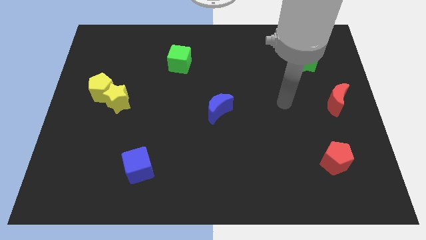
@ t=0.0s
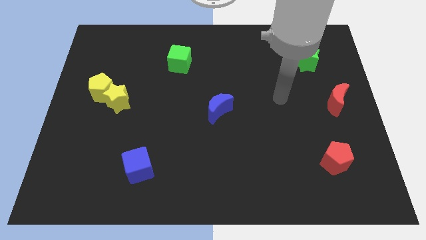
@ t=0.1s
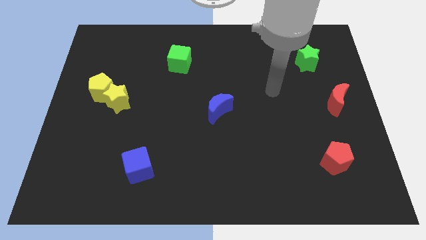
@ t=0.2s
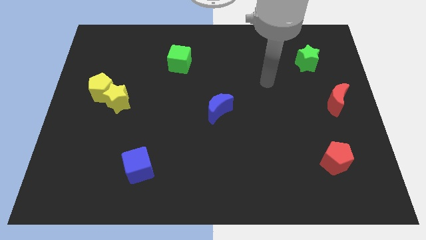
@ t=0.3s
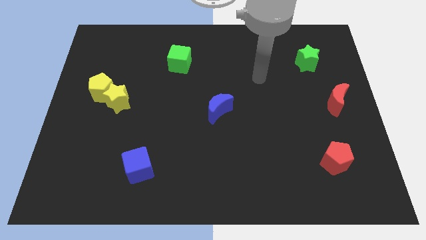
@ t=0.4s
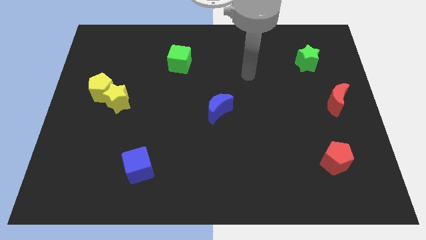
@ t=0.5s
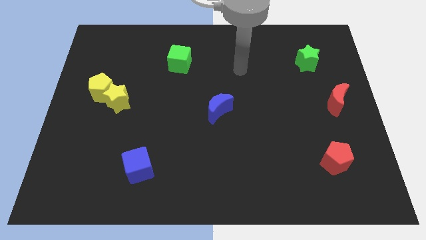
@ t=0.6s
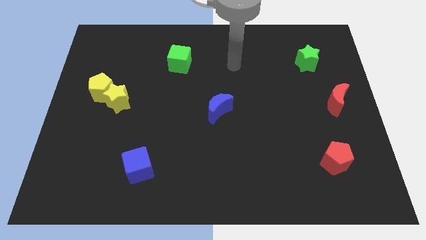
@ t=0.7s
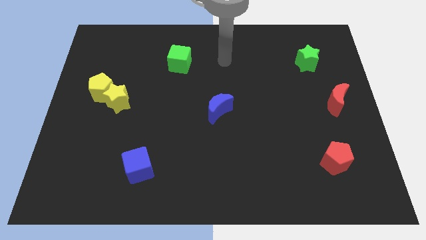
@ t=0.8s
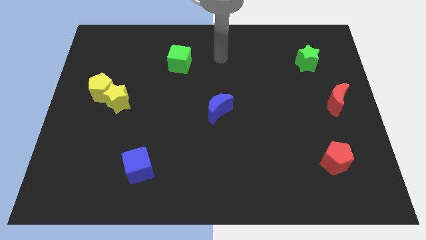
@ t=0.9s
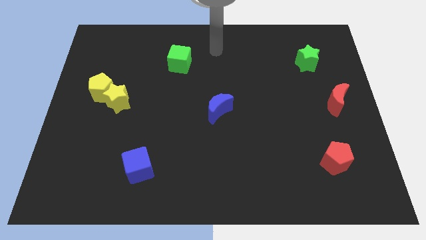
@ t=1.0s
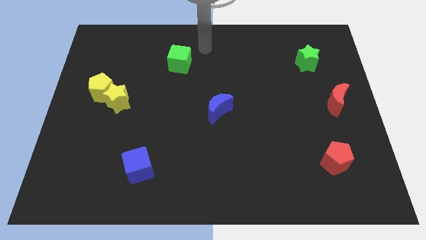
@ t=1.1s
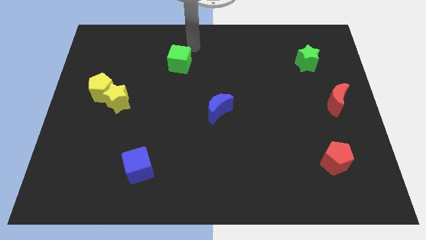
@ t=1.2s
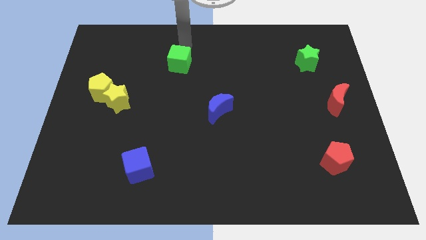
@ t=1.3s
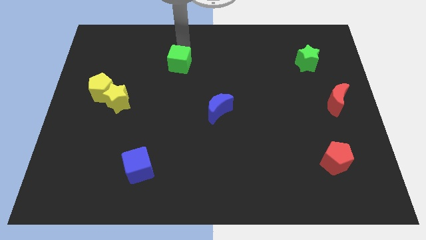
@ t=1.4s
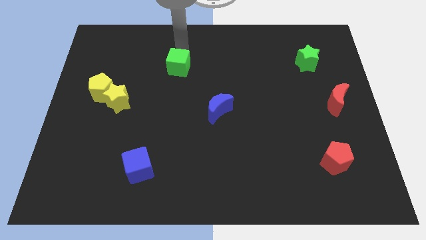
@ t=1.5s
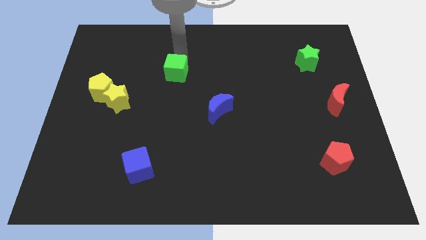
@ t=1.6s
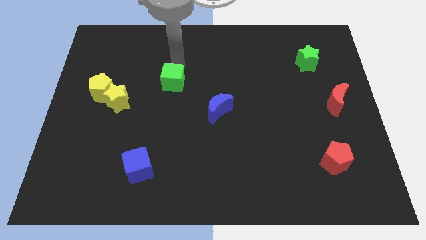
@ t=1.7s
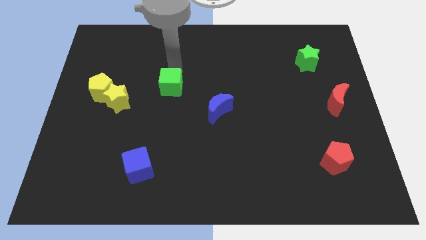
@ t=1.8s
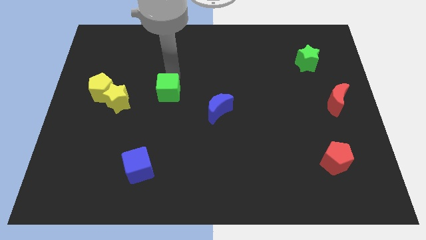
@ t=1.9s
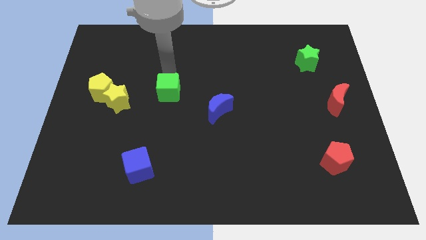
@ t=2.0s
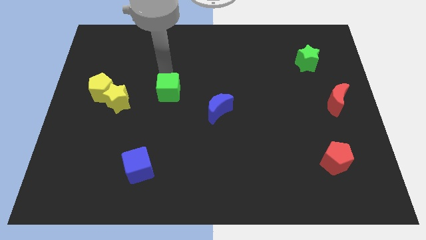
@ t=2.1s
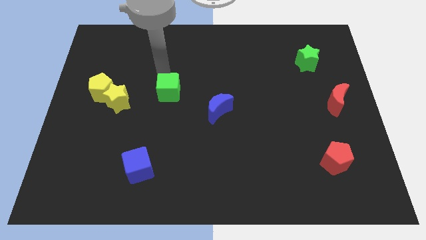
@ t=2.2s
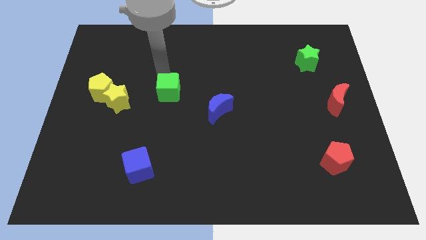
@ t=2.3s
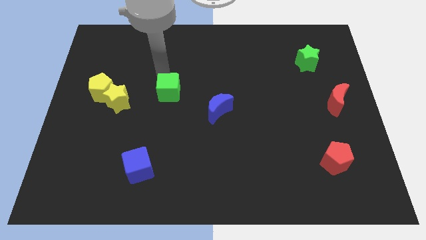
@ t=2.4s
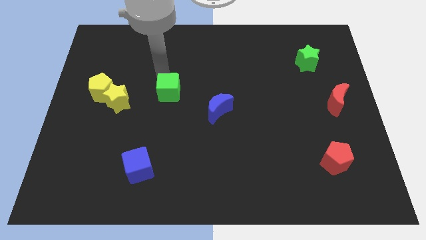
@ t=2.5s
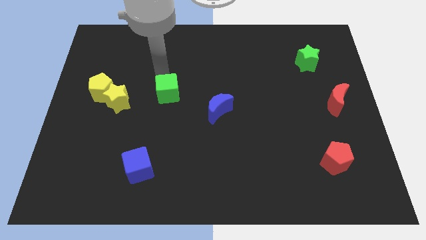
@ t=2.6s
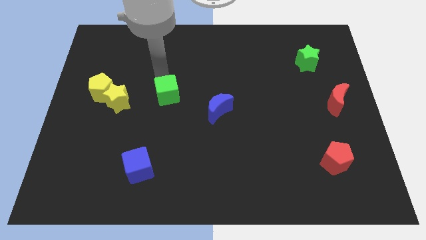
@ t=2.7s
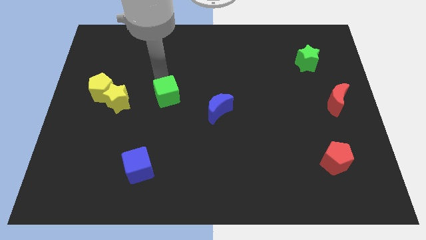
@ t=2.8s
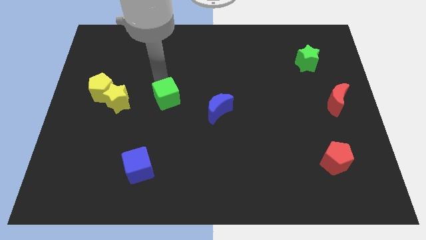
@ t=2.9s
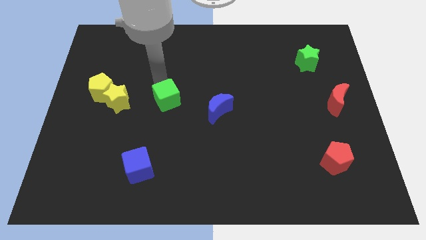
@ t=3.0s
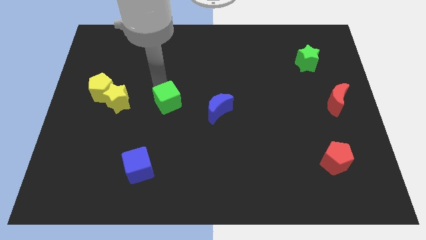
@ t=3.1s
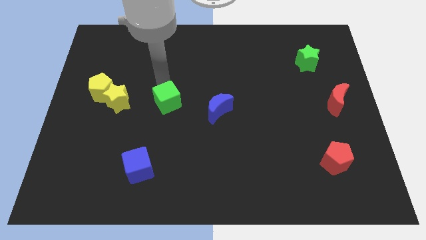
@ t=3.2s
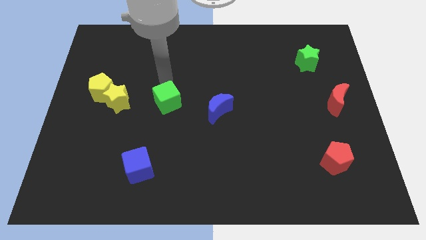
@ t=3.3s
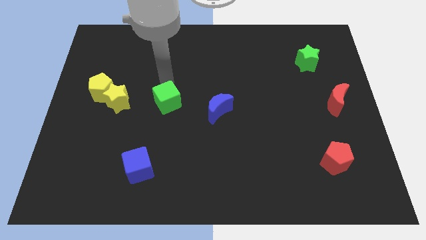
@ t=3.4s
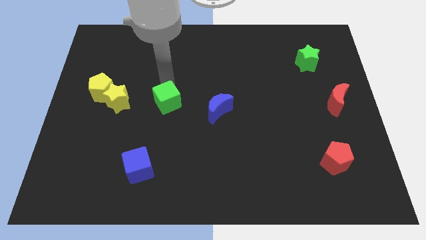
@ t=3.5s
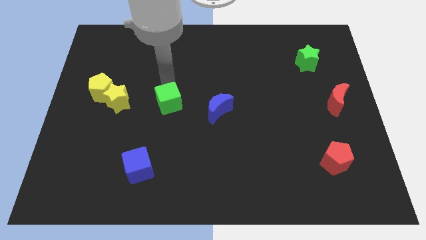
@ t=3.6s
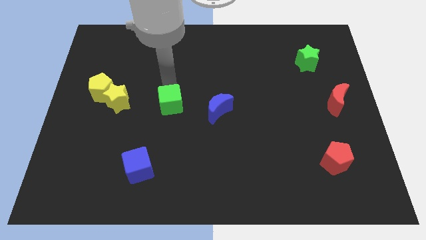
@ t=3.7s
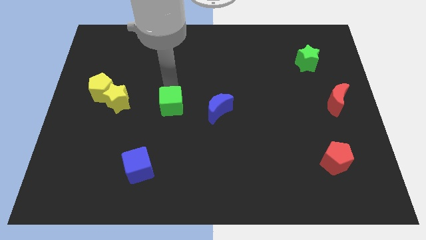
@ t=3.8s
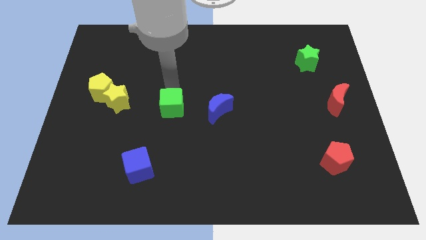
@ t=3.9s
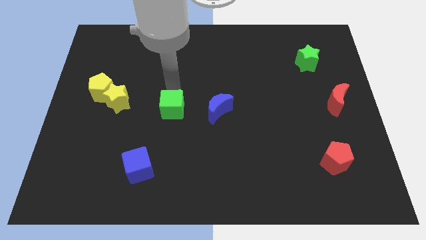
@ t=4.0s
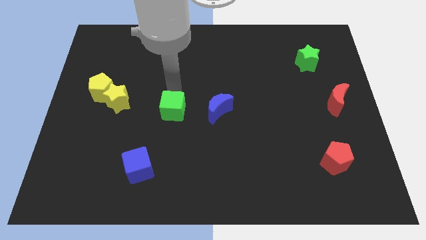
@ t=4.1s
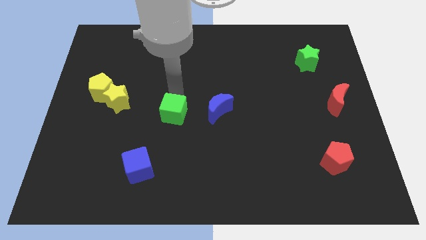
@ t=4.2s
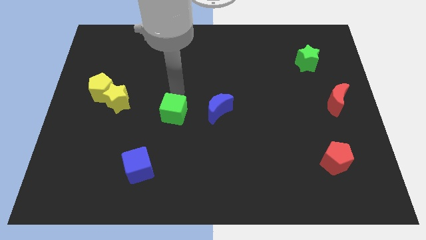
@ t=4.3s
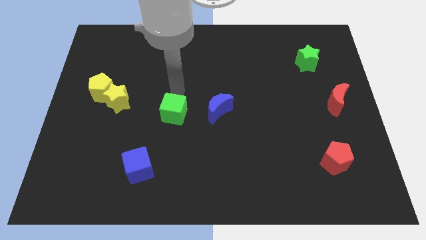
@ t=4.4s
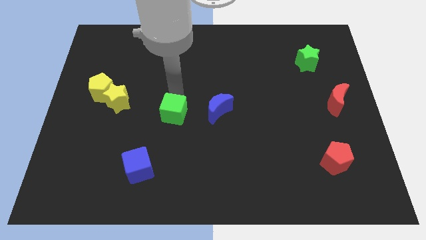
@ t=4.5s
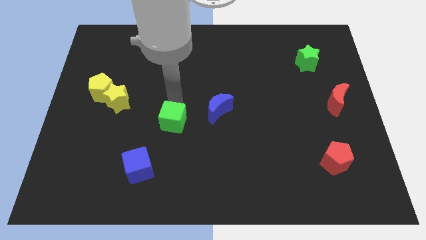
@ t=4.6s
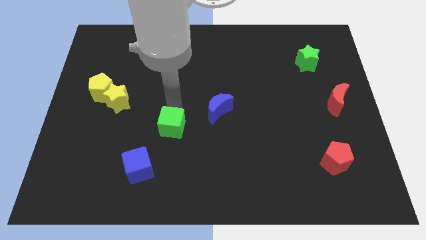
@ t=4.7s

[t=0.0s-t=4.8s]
slide the green cube down

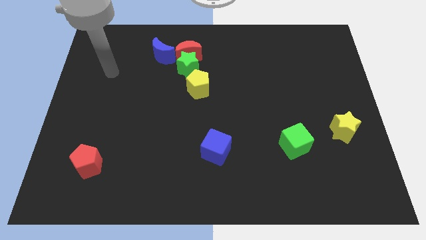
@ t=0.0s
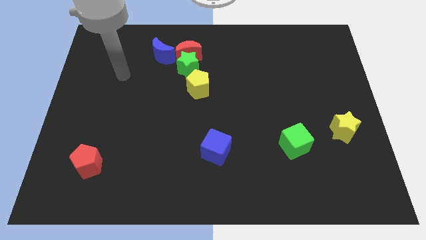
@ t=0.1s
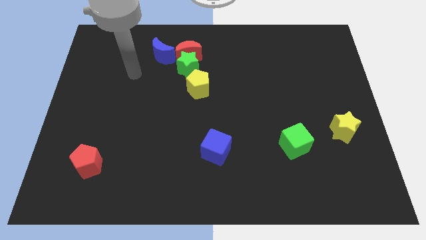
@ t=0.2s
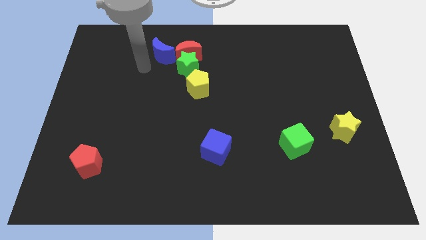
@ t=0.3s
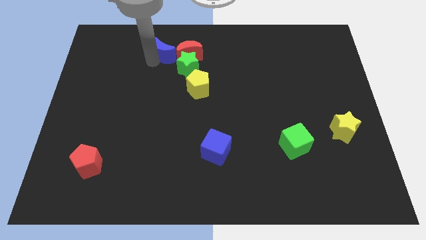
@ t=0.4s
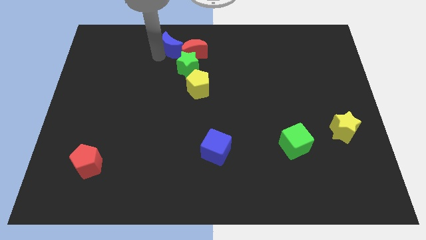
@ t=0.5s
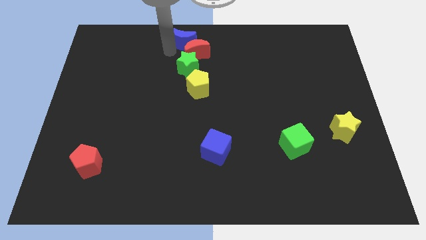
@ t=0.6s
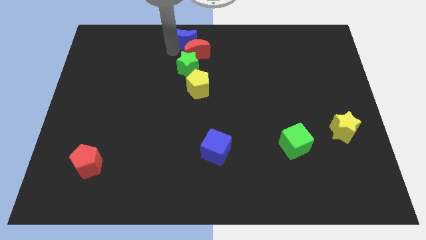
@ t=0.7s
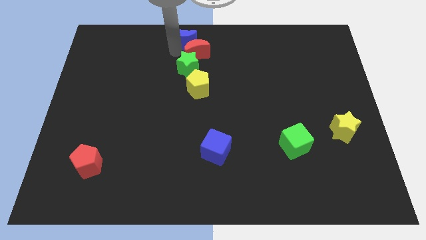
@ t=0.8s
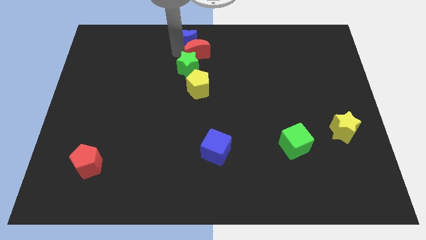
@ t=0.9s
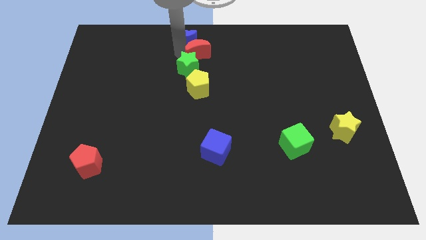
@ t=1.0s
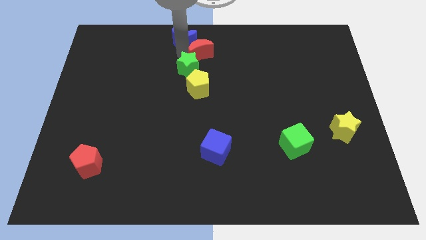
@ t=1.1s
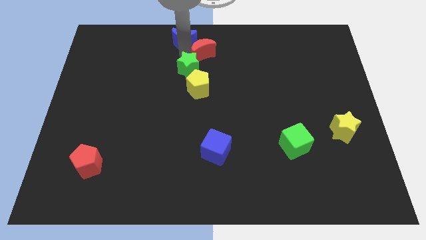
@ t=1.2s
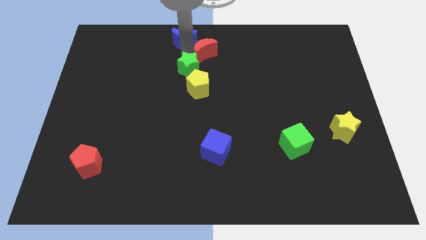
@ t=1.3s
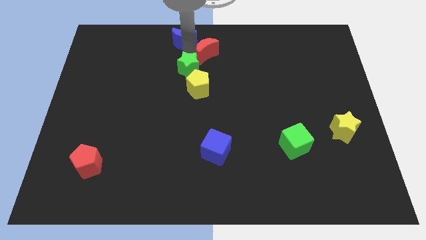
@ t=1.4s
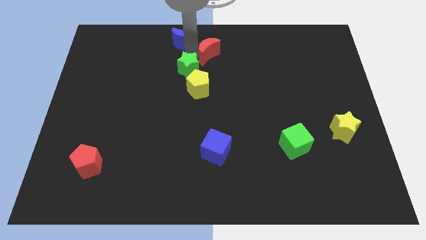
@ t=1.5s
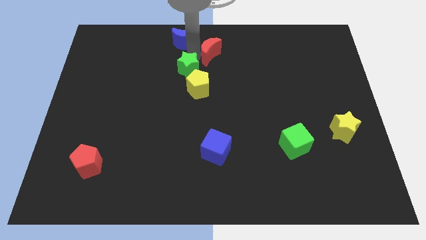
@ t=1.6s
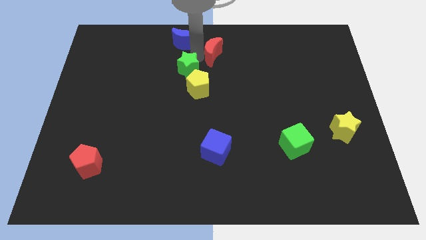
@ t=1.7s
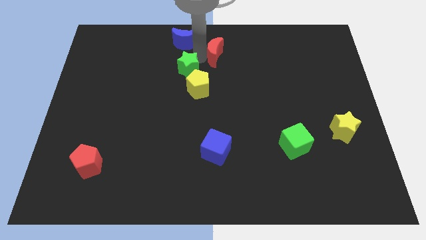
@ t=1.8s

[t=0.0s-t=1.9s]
slightly move the red moon to the right

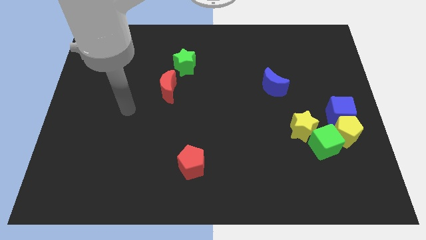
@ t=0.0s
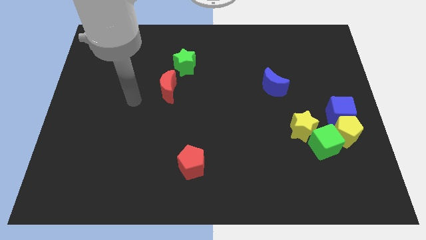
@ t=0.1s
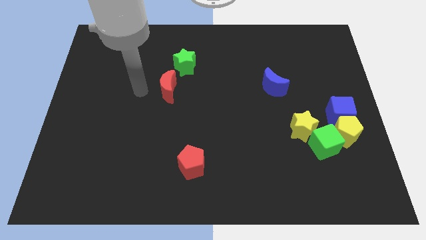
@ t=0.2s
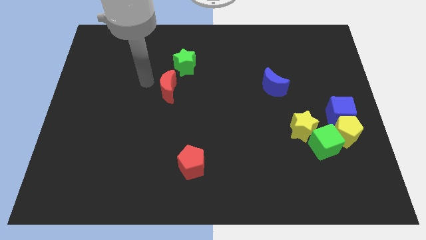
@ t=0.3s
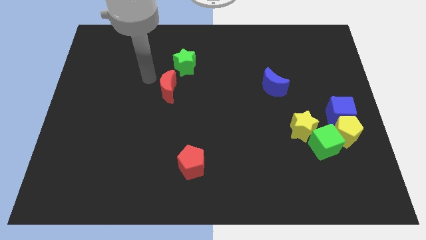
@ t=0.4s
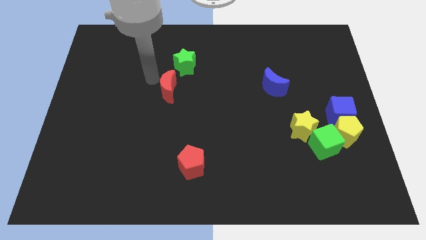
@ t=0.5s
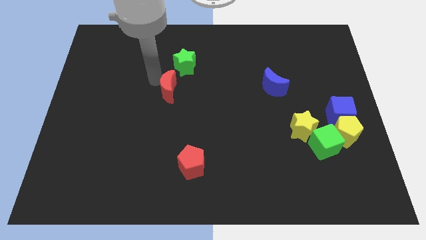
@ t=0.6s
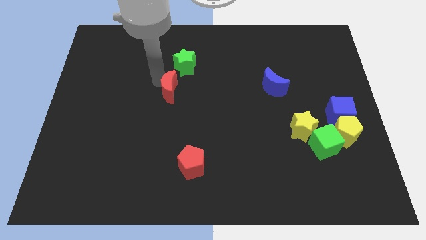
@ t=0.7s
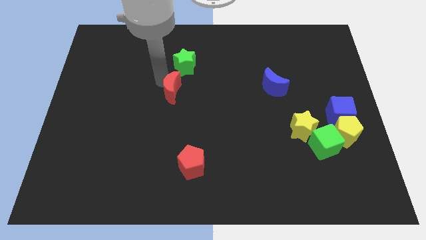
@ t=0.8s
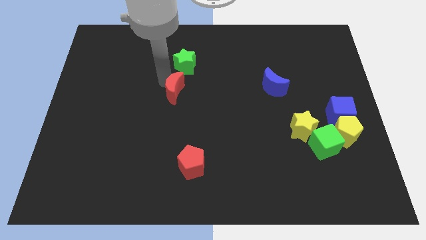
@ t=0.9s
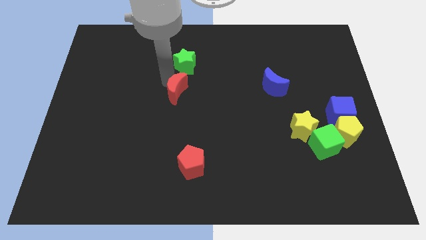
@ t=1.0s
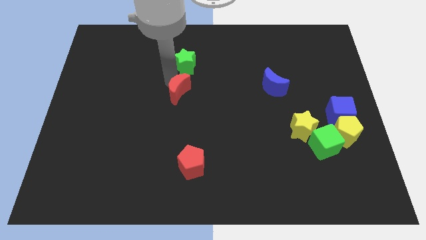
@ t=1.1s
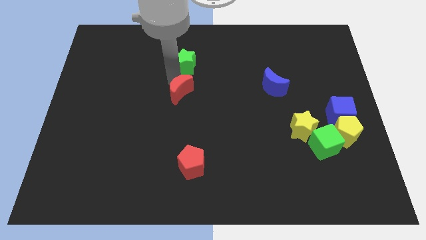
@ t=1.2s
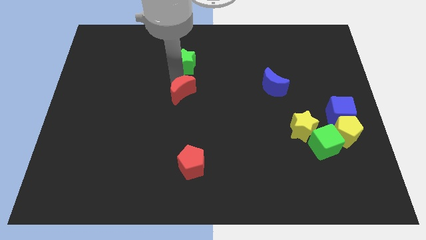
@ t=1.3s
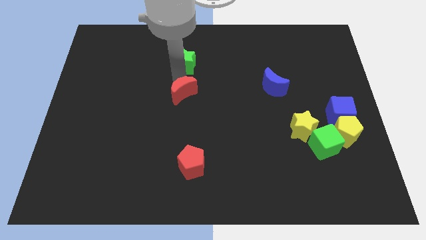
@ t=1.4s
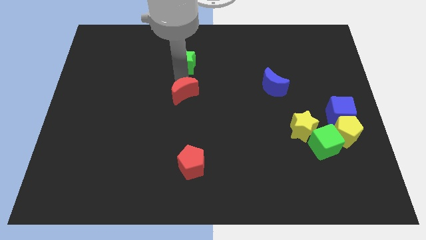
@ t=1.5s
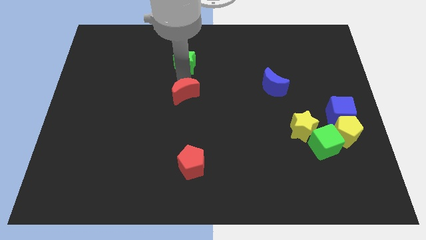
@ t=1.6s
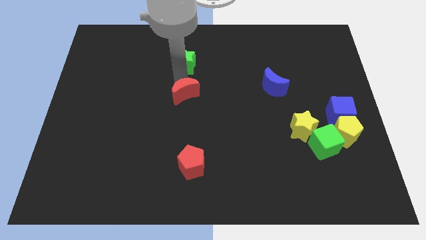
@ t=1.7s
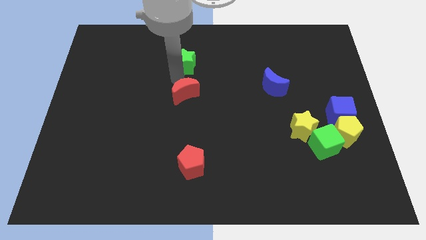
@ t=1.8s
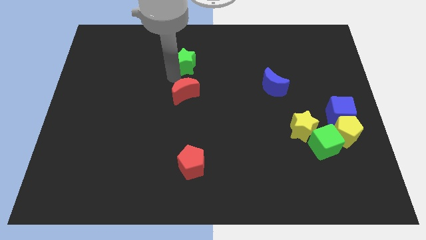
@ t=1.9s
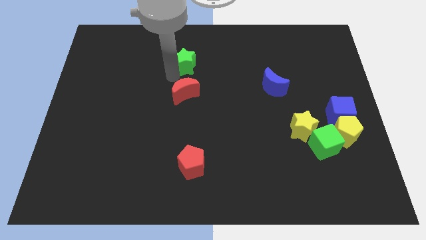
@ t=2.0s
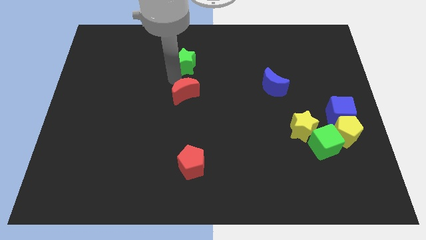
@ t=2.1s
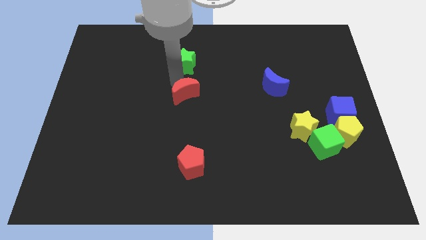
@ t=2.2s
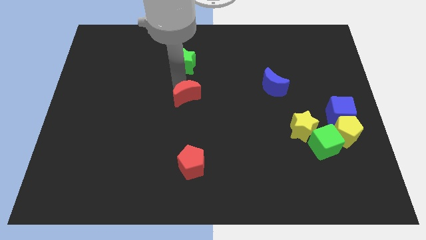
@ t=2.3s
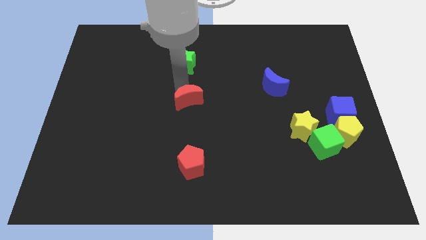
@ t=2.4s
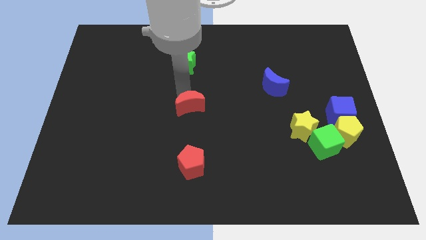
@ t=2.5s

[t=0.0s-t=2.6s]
slightly push the red moon down and to the right diagonally
